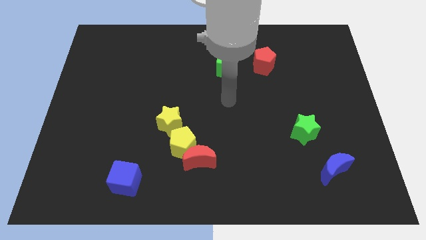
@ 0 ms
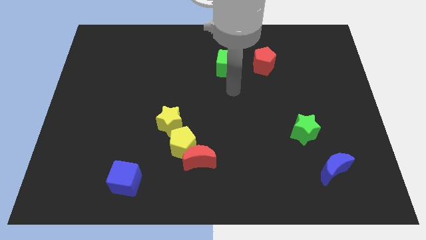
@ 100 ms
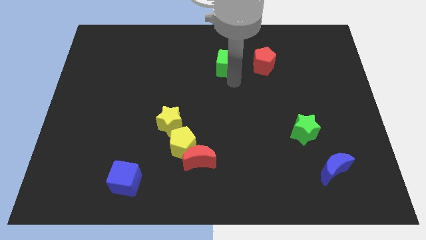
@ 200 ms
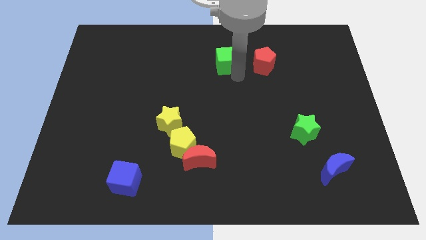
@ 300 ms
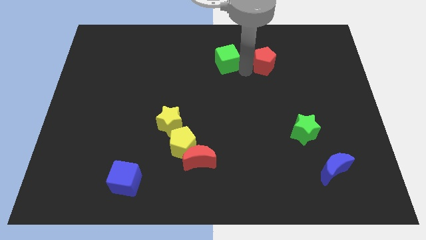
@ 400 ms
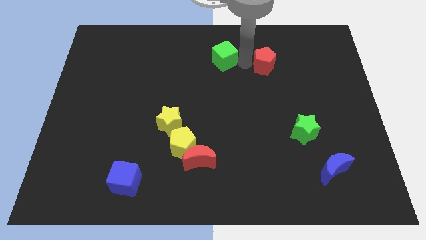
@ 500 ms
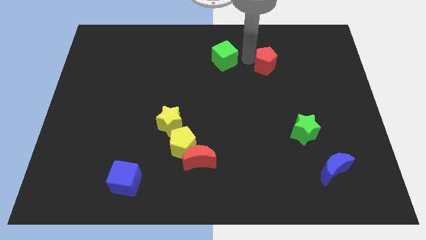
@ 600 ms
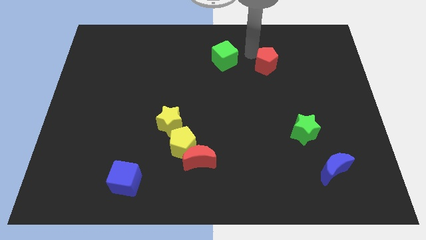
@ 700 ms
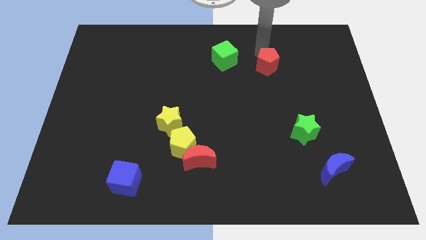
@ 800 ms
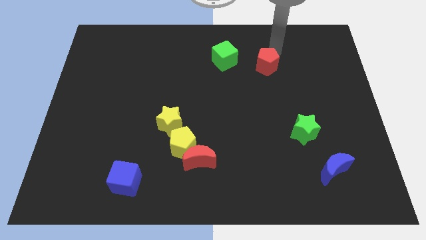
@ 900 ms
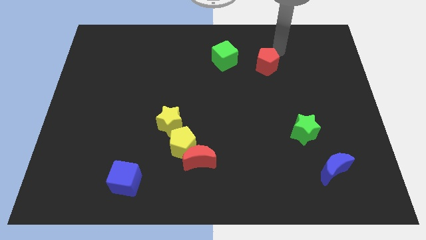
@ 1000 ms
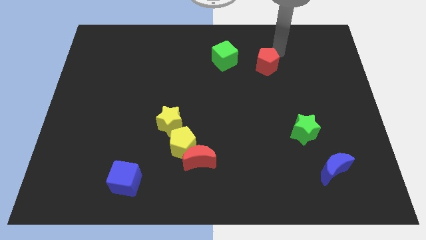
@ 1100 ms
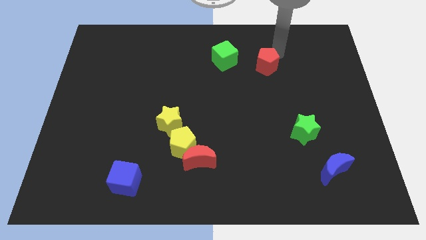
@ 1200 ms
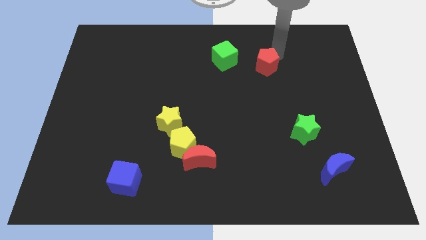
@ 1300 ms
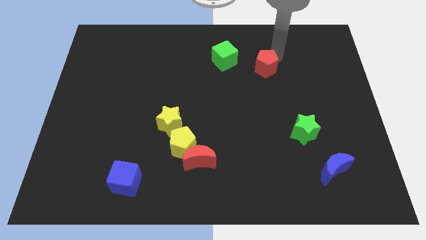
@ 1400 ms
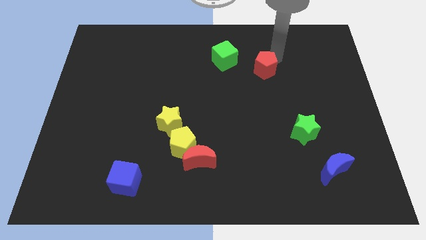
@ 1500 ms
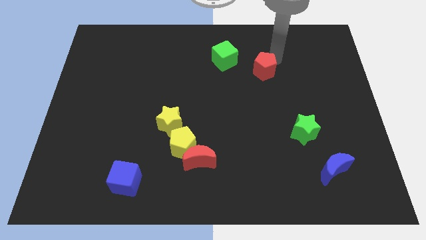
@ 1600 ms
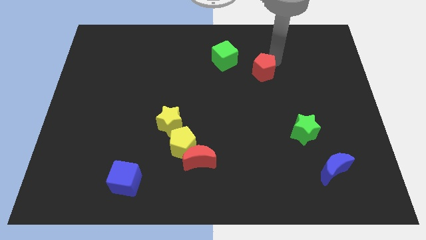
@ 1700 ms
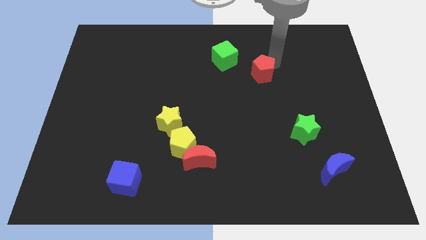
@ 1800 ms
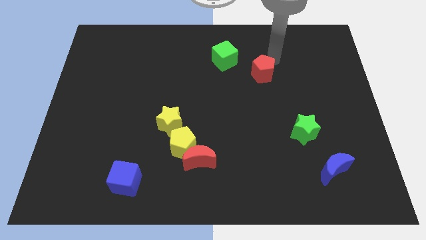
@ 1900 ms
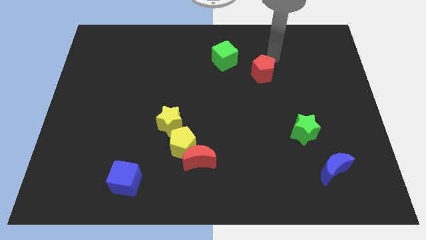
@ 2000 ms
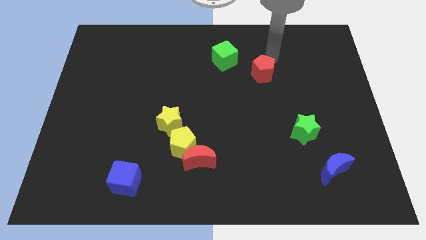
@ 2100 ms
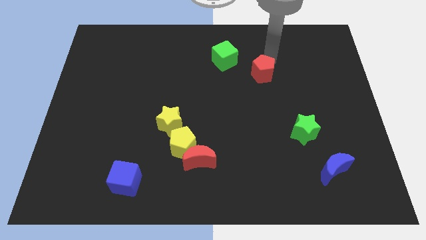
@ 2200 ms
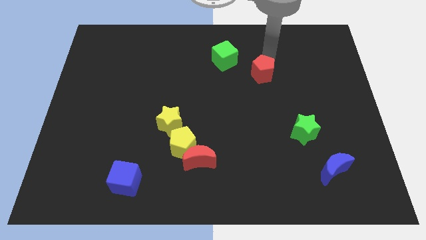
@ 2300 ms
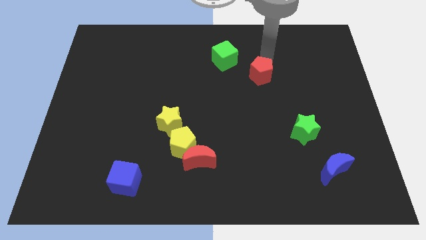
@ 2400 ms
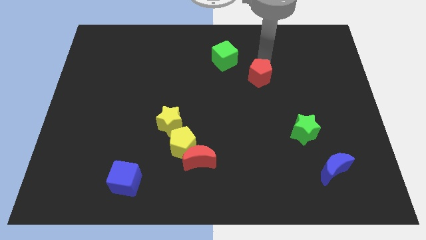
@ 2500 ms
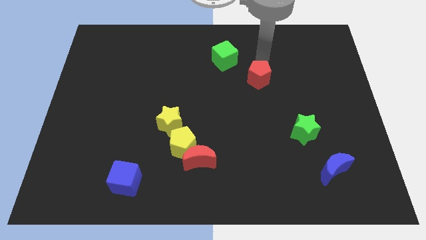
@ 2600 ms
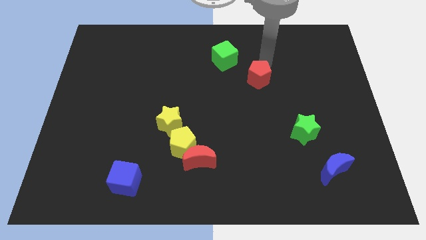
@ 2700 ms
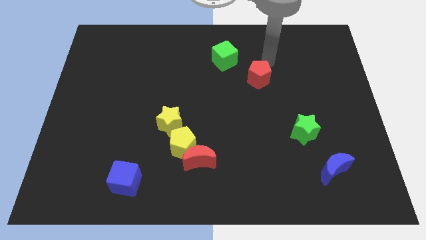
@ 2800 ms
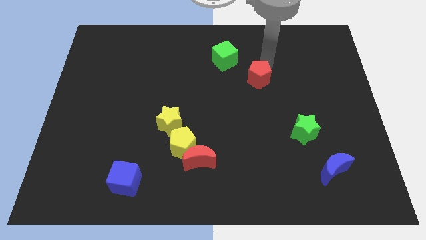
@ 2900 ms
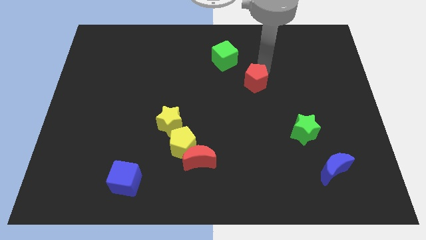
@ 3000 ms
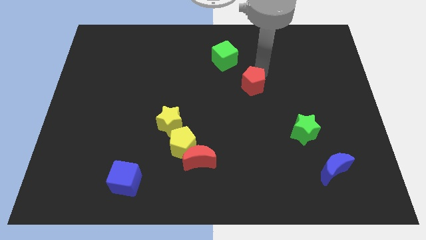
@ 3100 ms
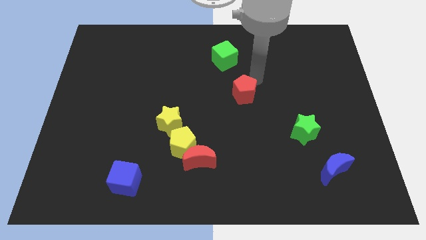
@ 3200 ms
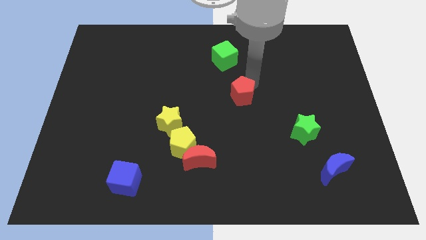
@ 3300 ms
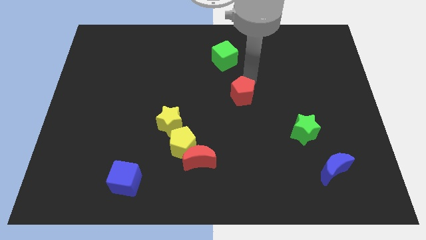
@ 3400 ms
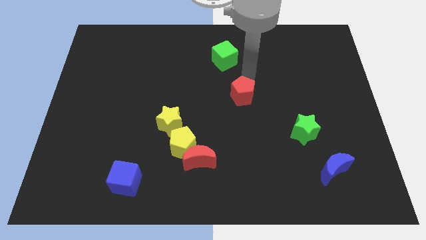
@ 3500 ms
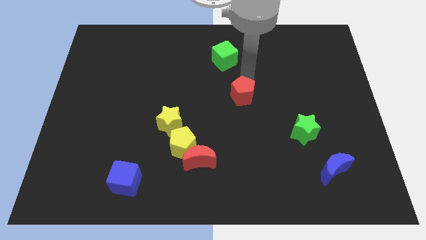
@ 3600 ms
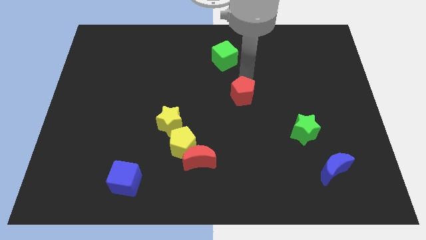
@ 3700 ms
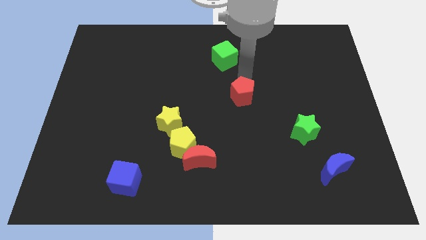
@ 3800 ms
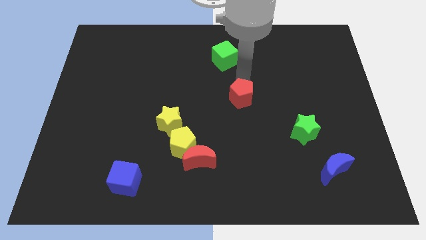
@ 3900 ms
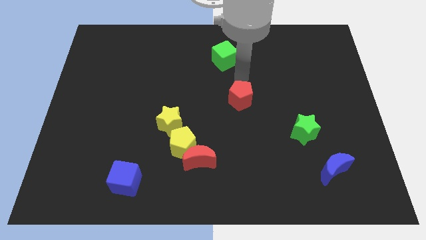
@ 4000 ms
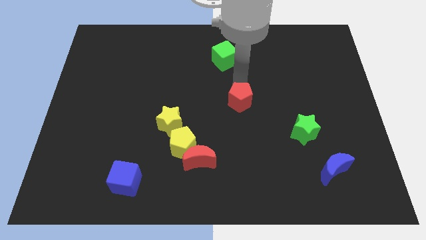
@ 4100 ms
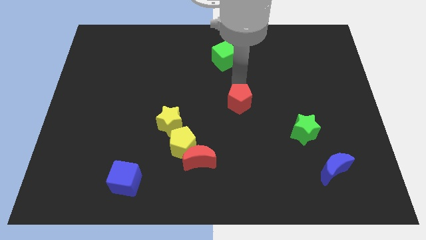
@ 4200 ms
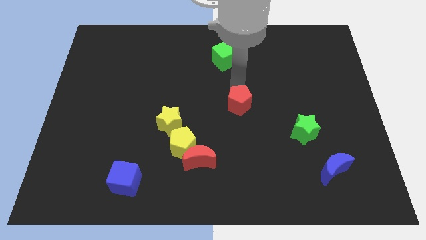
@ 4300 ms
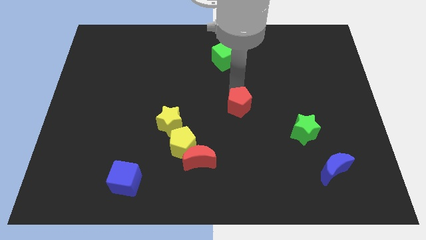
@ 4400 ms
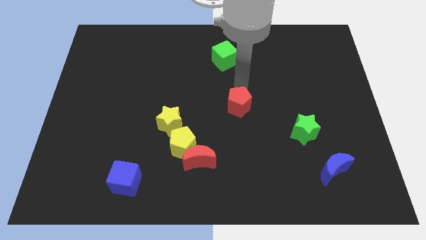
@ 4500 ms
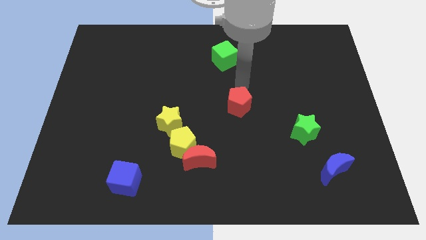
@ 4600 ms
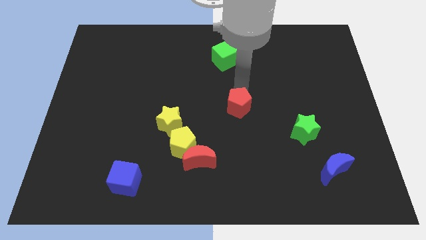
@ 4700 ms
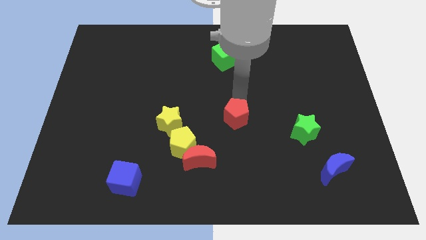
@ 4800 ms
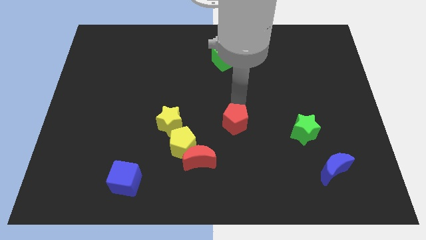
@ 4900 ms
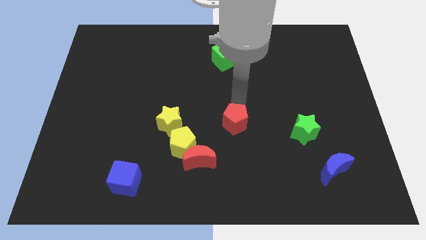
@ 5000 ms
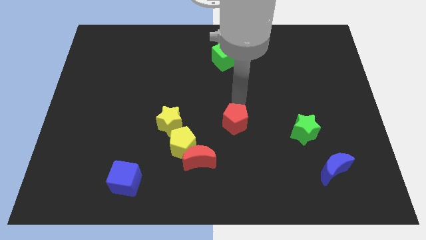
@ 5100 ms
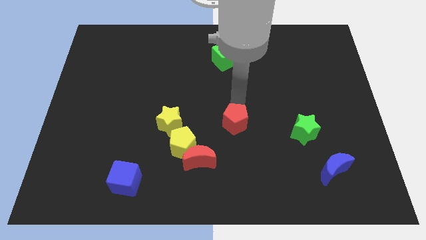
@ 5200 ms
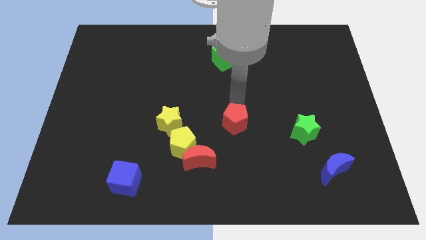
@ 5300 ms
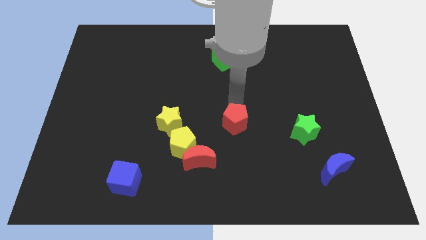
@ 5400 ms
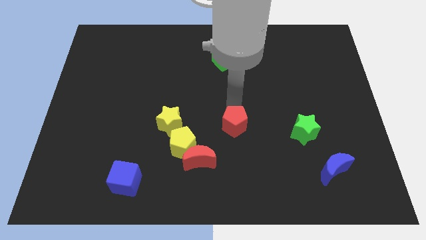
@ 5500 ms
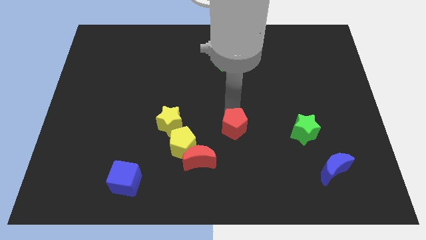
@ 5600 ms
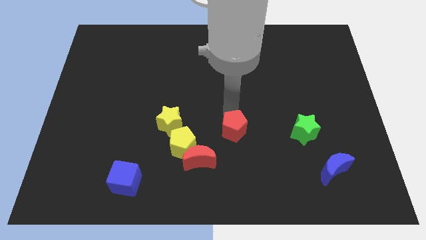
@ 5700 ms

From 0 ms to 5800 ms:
put the red pentagon right of the yellow pentagon

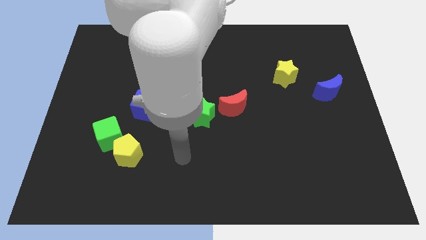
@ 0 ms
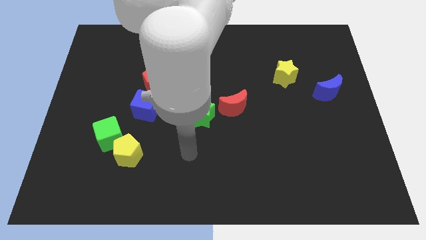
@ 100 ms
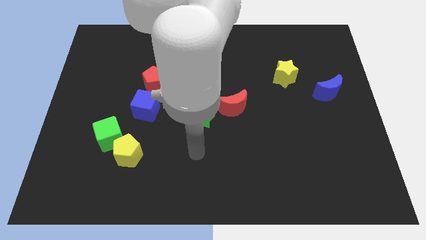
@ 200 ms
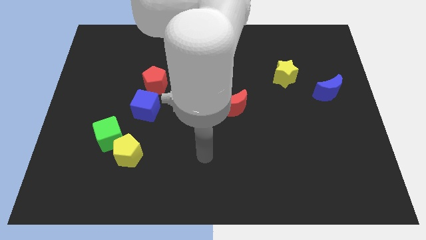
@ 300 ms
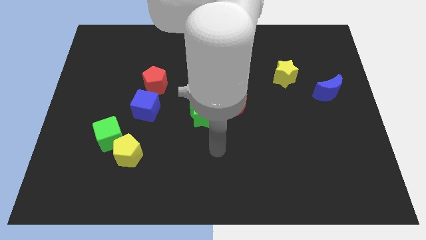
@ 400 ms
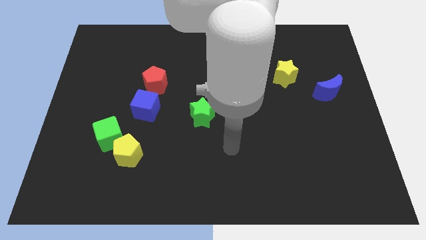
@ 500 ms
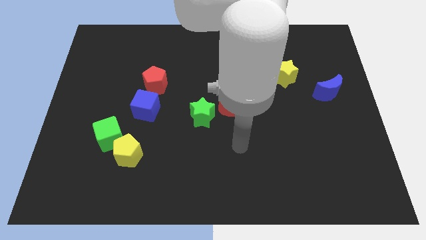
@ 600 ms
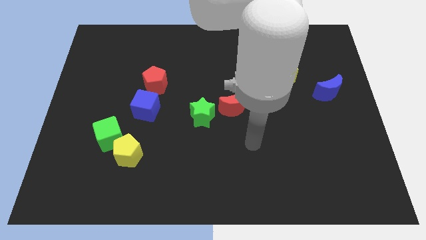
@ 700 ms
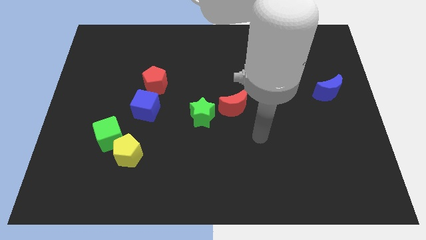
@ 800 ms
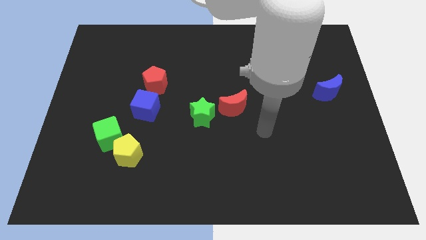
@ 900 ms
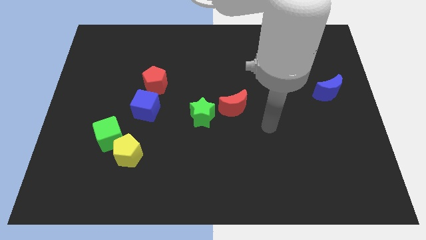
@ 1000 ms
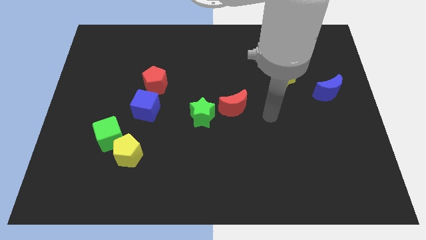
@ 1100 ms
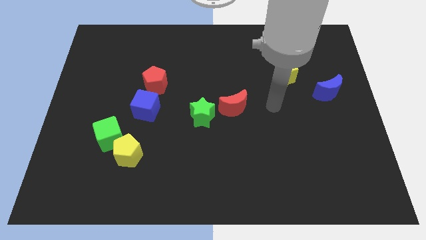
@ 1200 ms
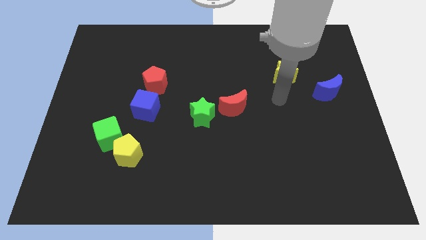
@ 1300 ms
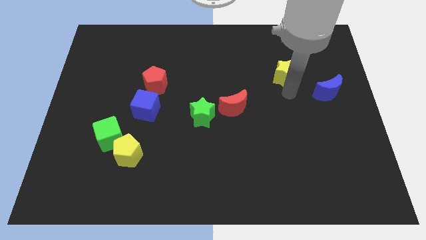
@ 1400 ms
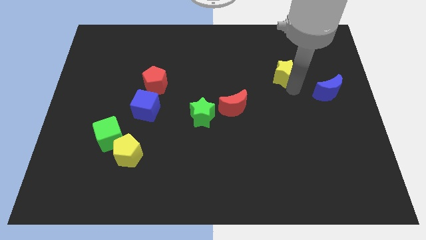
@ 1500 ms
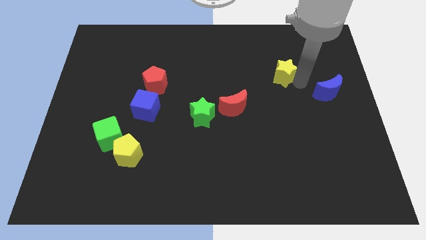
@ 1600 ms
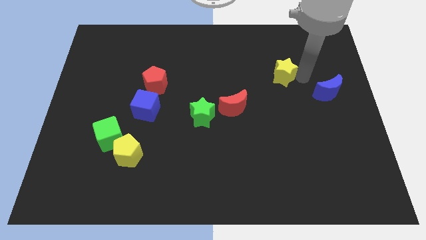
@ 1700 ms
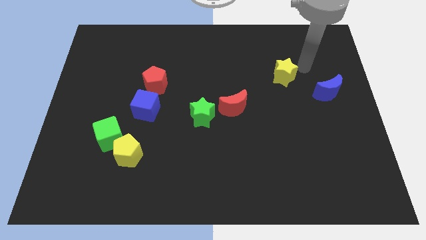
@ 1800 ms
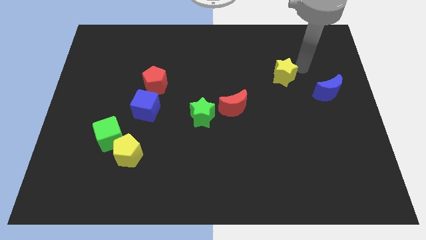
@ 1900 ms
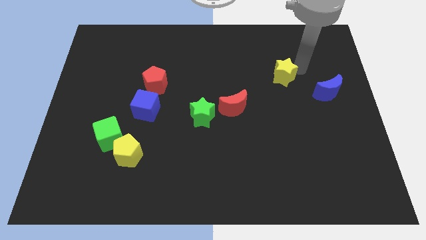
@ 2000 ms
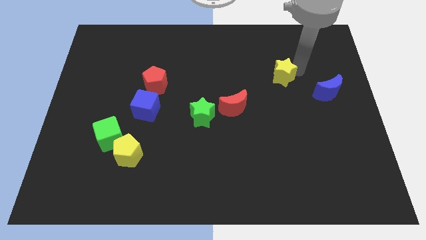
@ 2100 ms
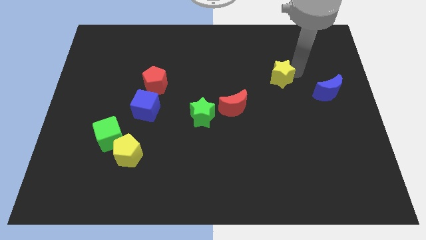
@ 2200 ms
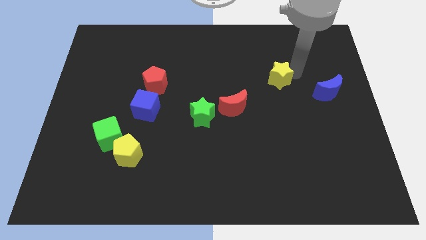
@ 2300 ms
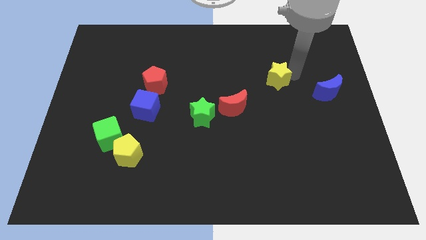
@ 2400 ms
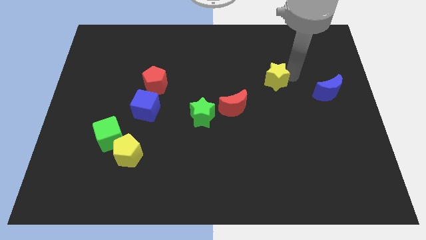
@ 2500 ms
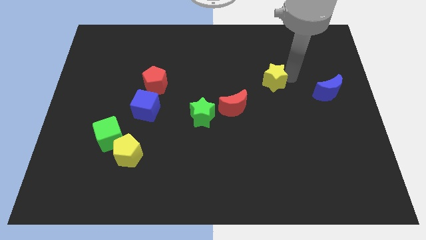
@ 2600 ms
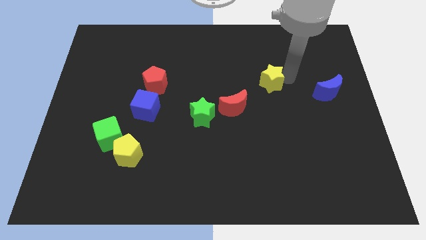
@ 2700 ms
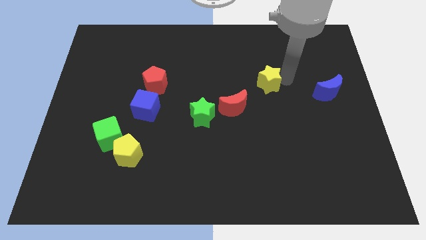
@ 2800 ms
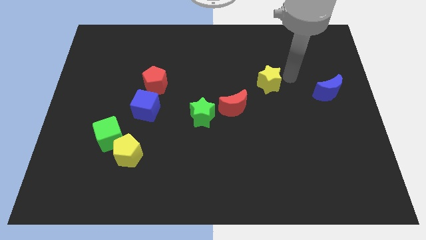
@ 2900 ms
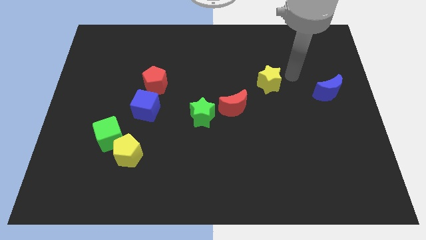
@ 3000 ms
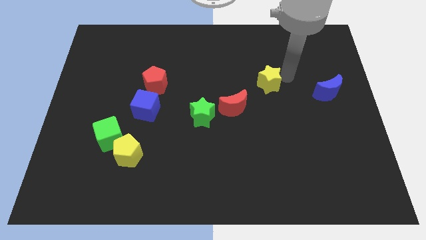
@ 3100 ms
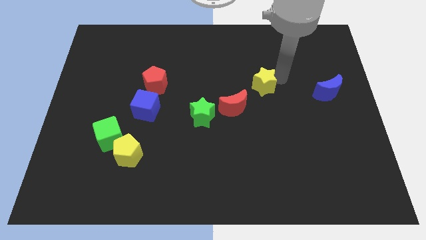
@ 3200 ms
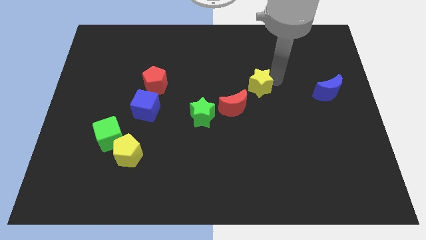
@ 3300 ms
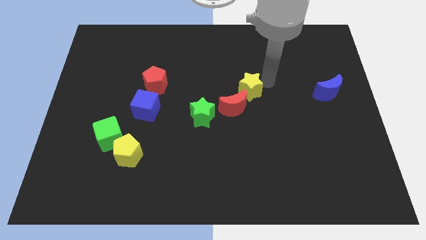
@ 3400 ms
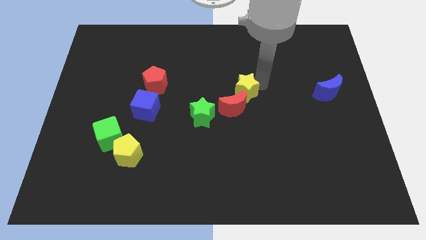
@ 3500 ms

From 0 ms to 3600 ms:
move the yellow star diagonally up and to the right of the green star
